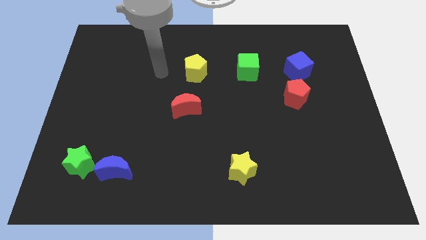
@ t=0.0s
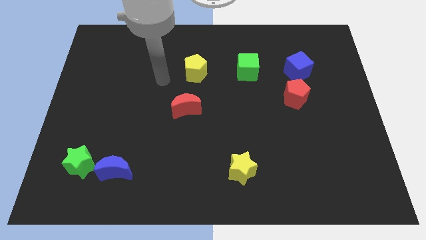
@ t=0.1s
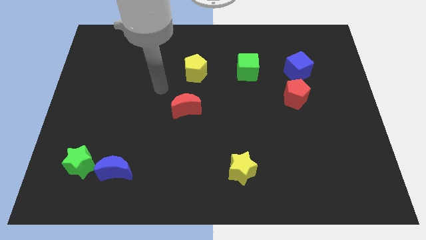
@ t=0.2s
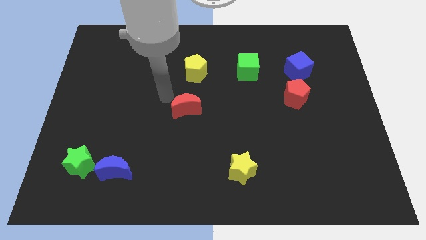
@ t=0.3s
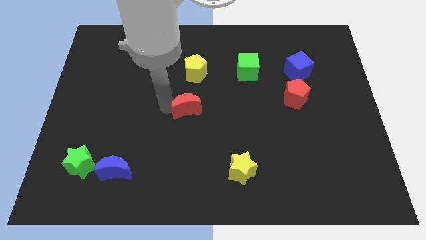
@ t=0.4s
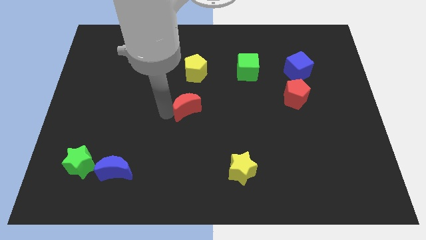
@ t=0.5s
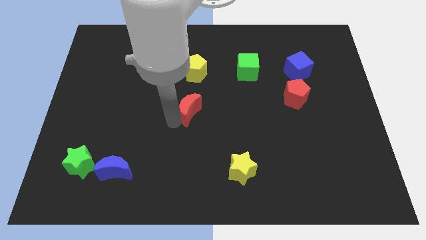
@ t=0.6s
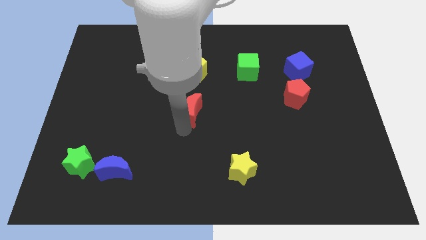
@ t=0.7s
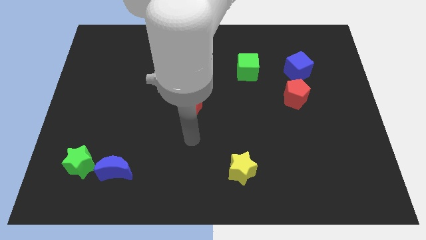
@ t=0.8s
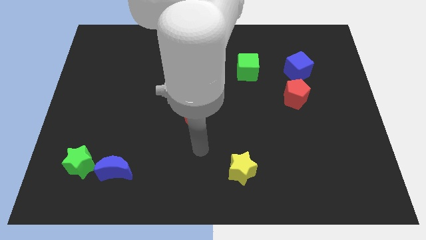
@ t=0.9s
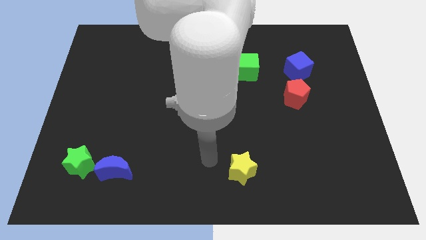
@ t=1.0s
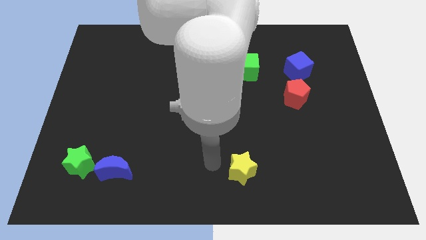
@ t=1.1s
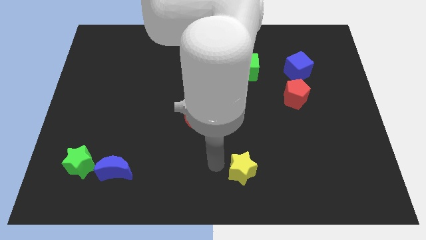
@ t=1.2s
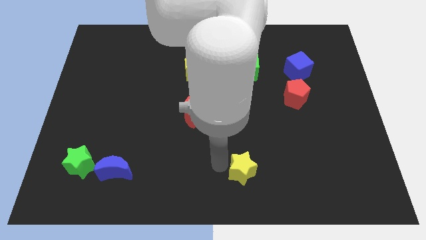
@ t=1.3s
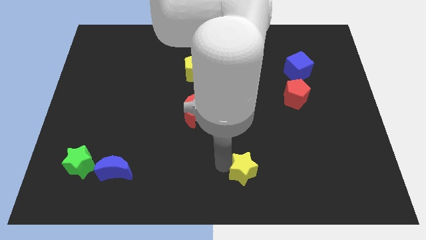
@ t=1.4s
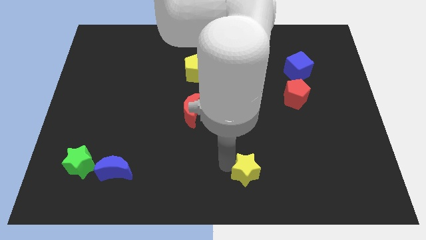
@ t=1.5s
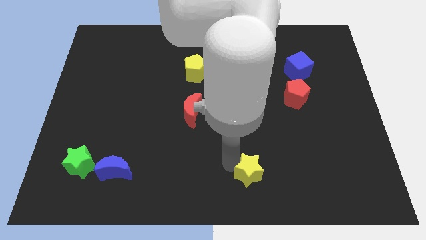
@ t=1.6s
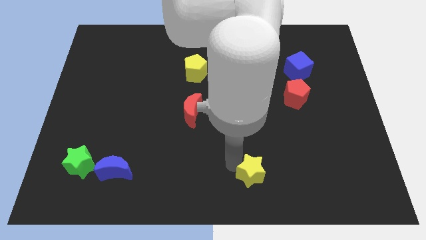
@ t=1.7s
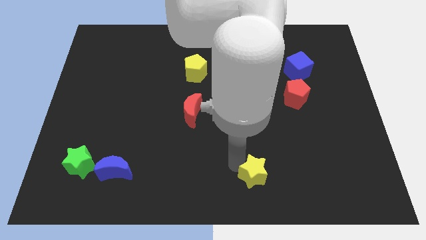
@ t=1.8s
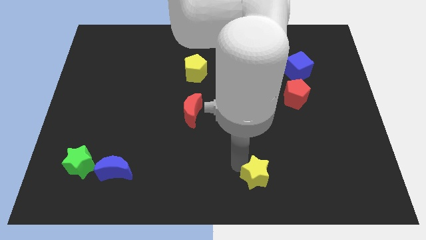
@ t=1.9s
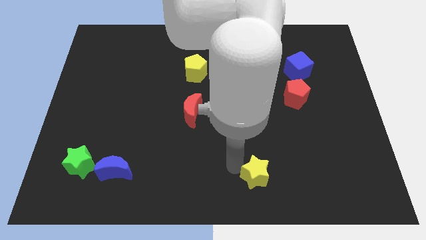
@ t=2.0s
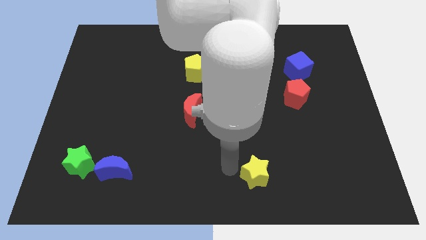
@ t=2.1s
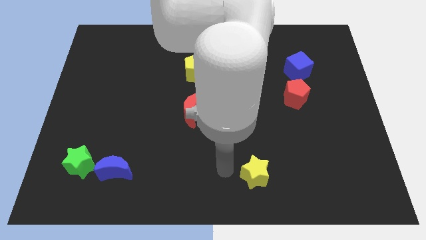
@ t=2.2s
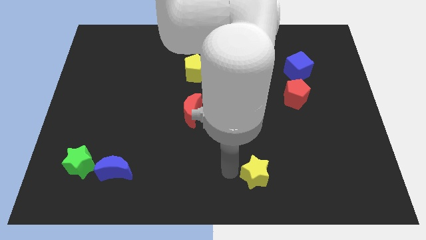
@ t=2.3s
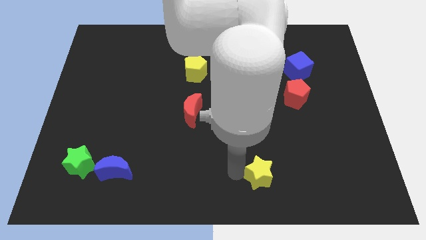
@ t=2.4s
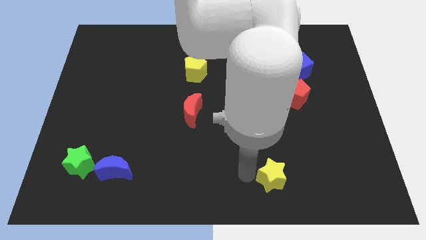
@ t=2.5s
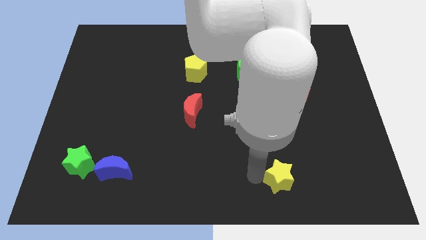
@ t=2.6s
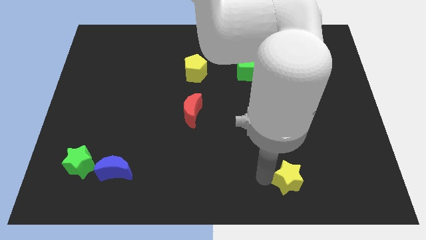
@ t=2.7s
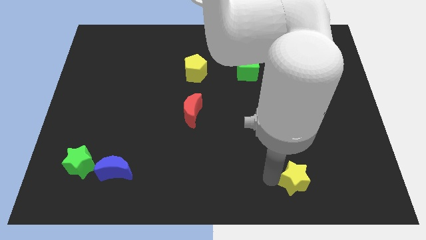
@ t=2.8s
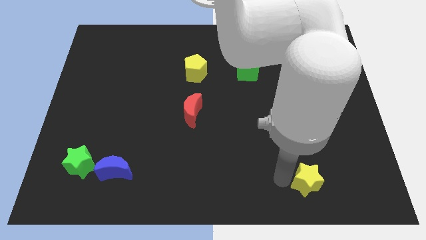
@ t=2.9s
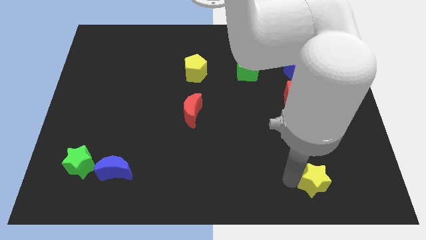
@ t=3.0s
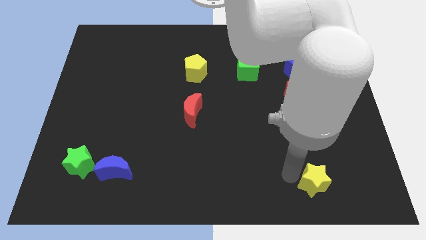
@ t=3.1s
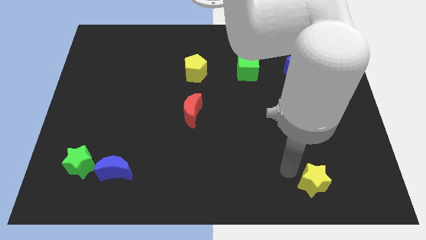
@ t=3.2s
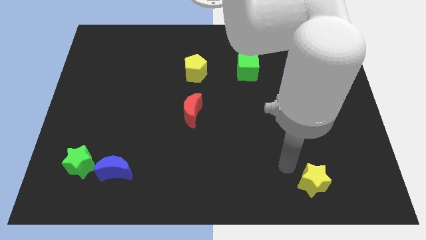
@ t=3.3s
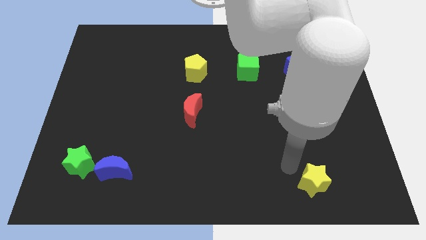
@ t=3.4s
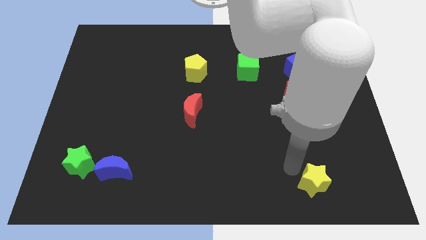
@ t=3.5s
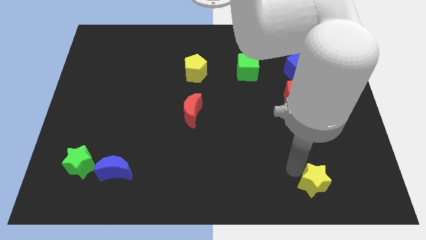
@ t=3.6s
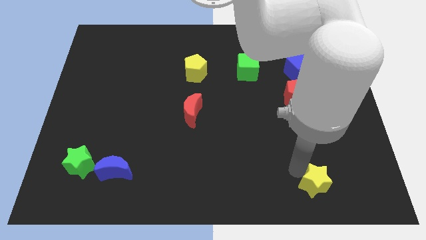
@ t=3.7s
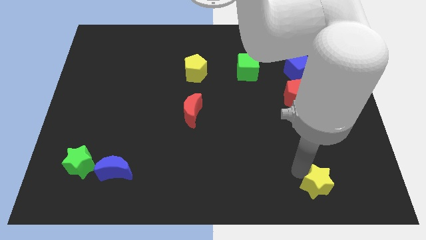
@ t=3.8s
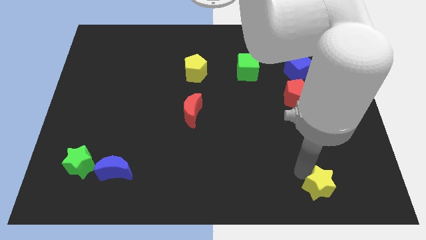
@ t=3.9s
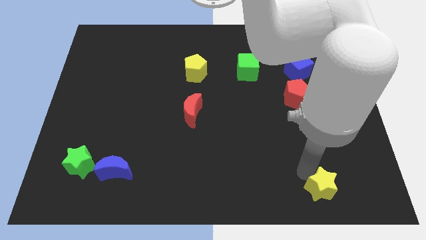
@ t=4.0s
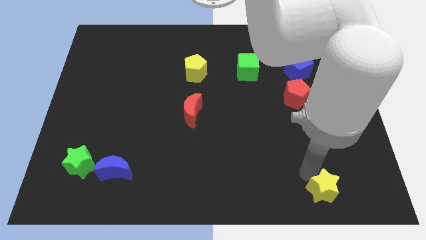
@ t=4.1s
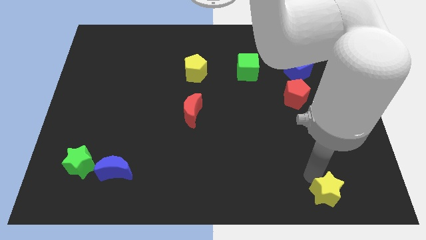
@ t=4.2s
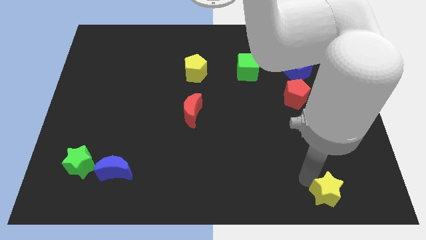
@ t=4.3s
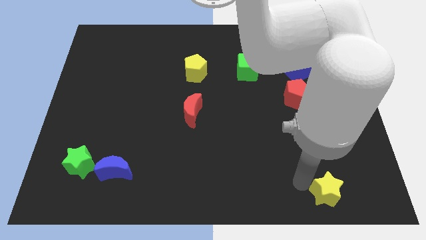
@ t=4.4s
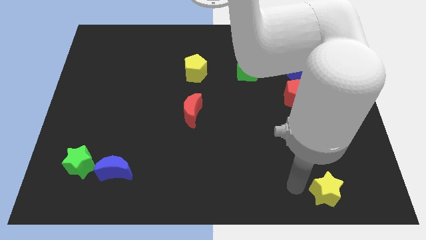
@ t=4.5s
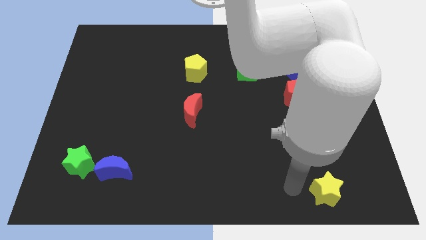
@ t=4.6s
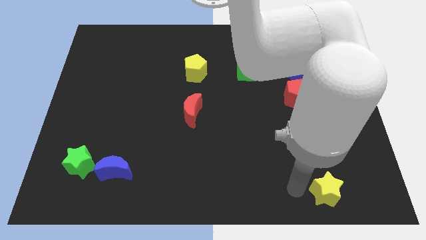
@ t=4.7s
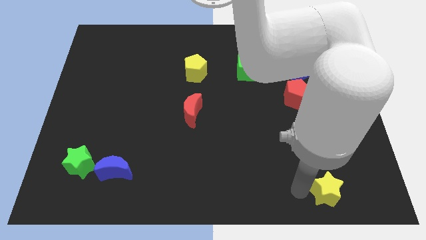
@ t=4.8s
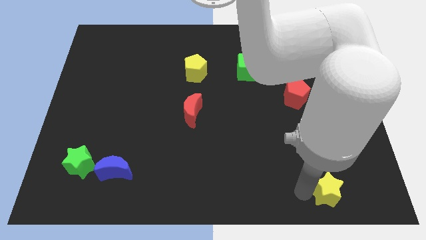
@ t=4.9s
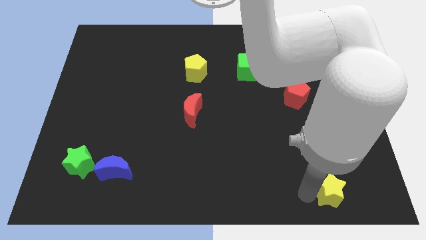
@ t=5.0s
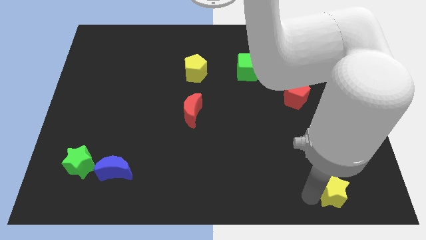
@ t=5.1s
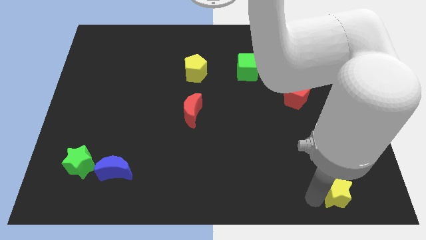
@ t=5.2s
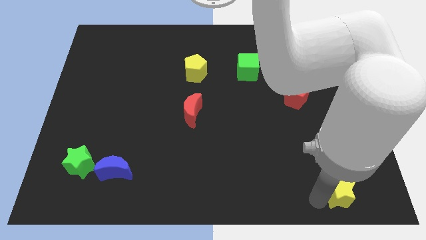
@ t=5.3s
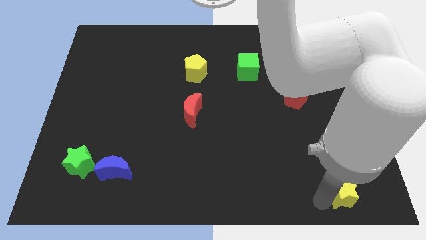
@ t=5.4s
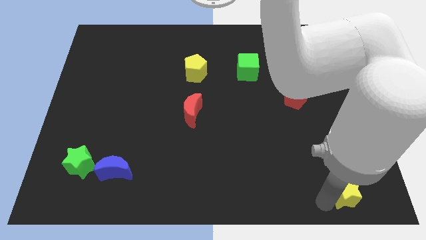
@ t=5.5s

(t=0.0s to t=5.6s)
push the yellow star to the bottom right corner

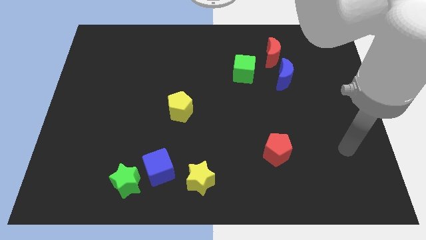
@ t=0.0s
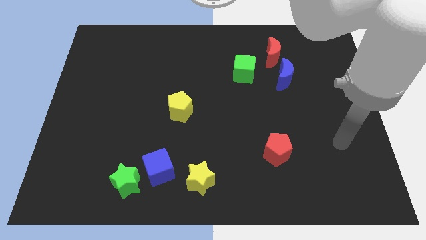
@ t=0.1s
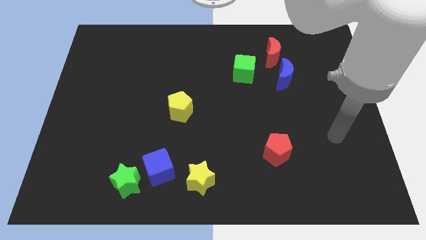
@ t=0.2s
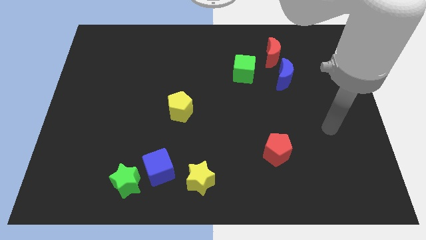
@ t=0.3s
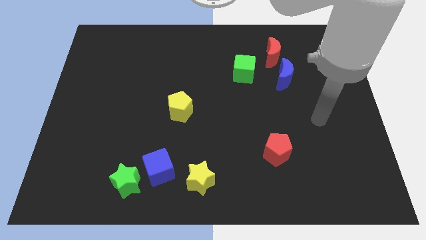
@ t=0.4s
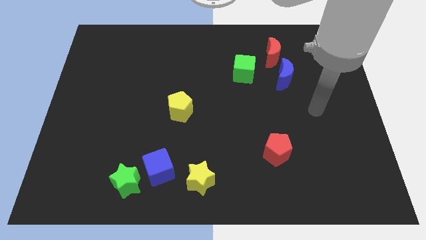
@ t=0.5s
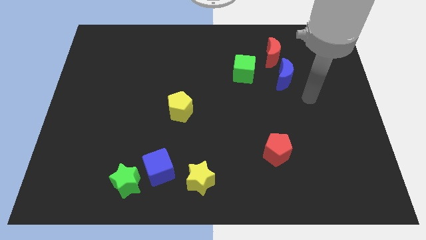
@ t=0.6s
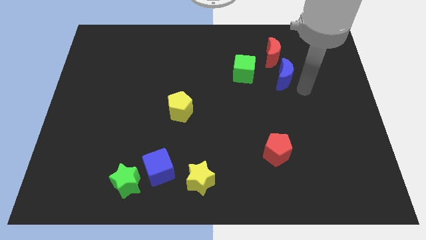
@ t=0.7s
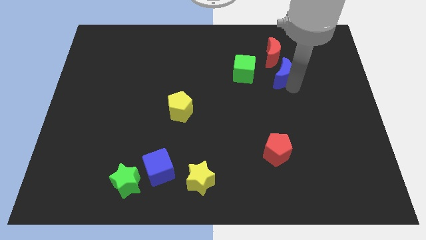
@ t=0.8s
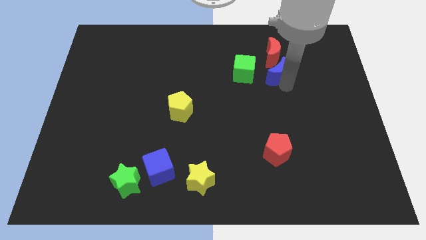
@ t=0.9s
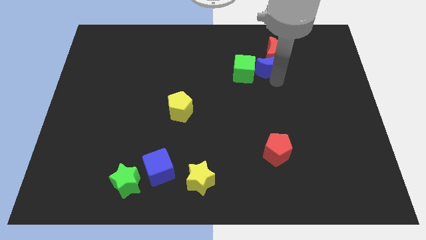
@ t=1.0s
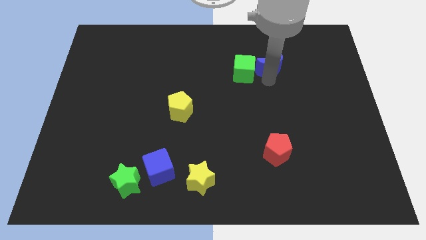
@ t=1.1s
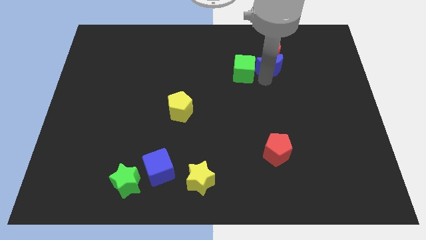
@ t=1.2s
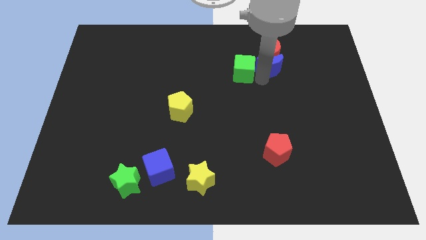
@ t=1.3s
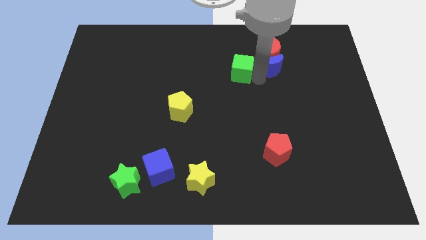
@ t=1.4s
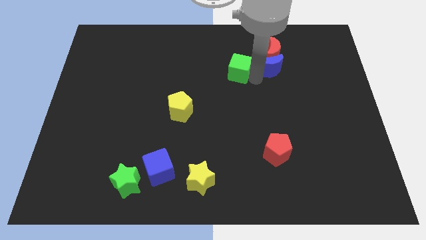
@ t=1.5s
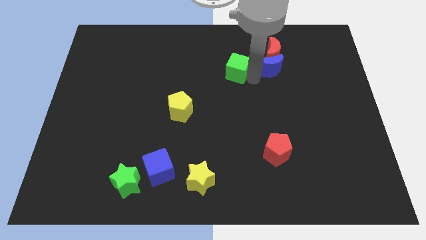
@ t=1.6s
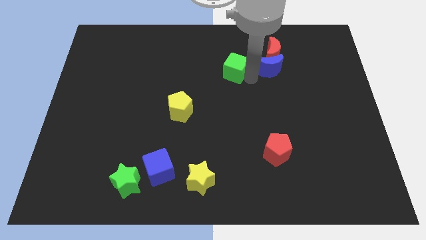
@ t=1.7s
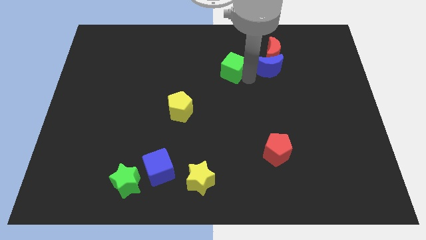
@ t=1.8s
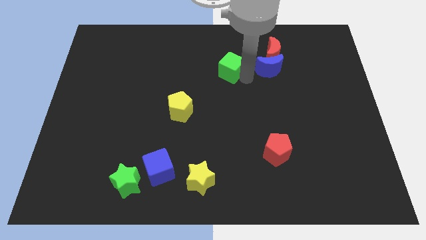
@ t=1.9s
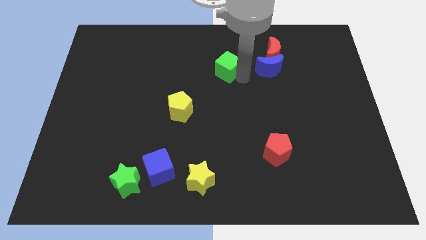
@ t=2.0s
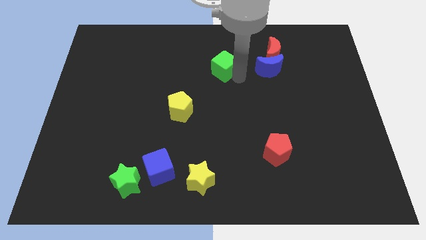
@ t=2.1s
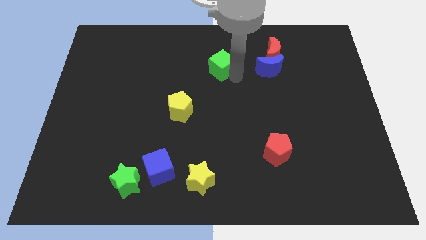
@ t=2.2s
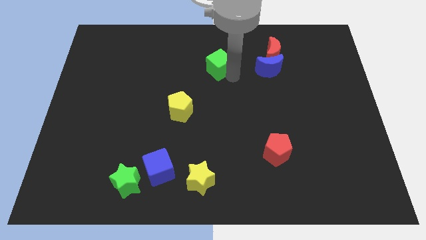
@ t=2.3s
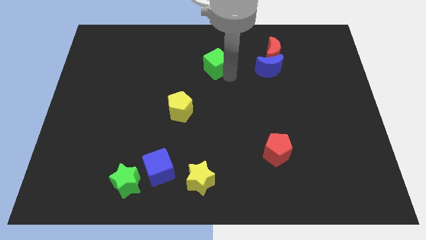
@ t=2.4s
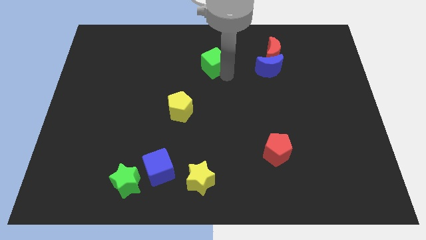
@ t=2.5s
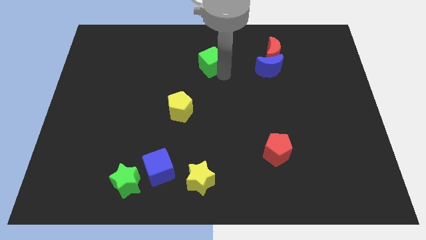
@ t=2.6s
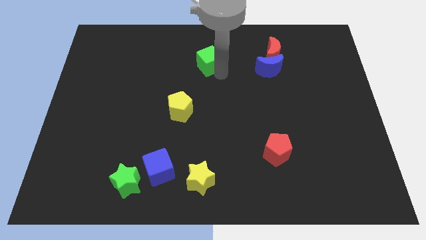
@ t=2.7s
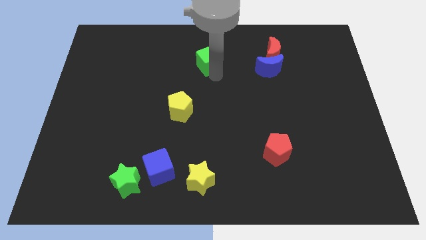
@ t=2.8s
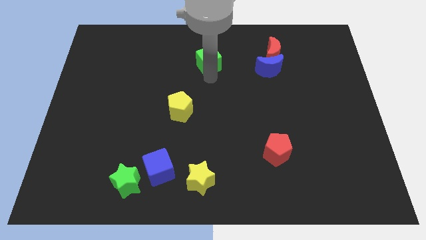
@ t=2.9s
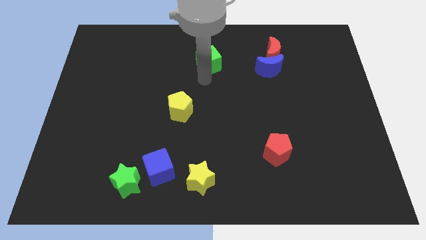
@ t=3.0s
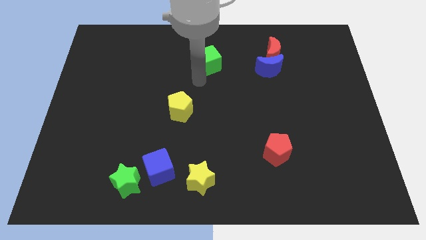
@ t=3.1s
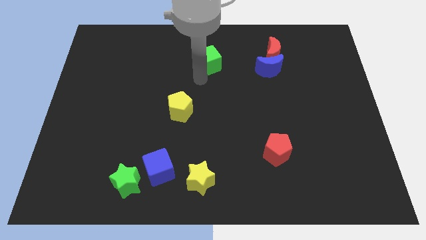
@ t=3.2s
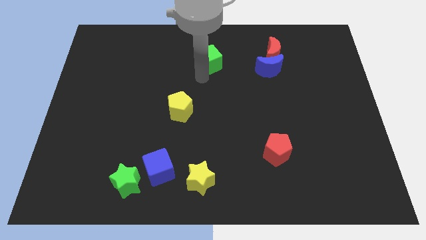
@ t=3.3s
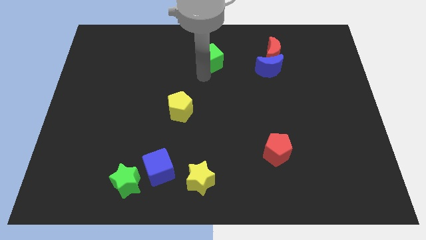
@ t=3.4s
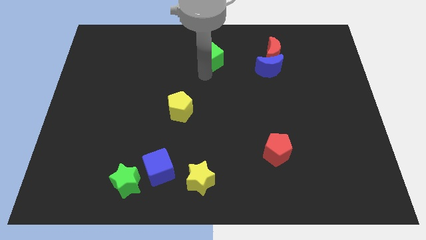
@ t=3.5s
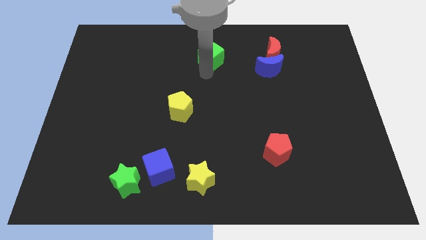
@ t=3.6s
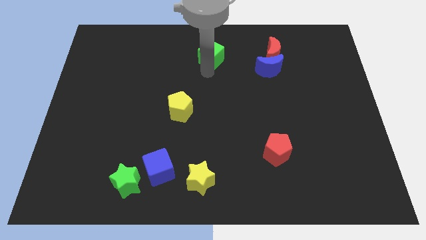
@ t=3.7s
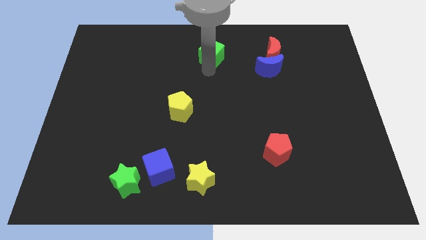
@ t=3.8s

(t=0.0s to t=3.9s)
slide the green cube to the top
